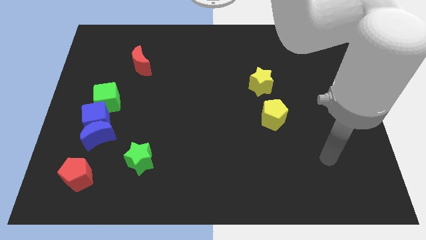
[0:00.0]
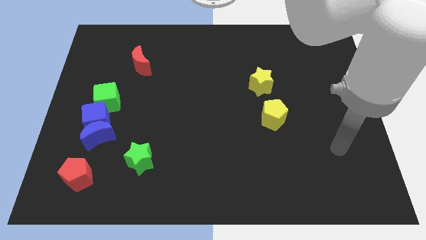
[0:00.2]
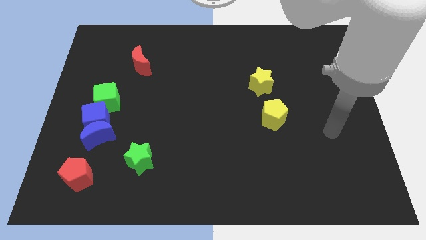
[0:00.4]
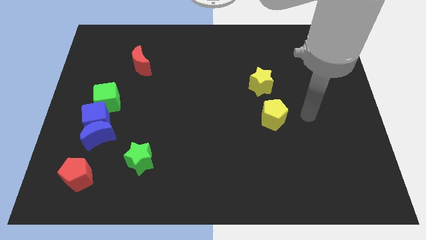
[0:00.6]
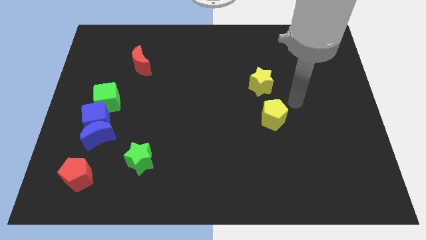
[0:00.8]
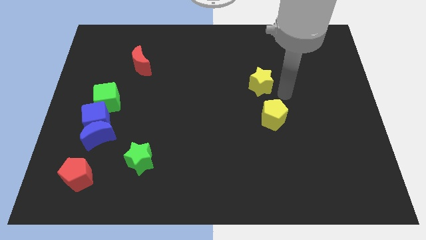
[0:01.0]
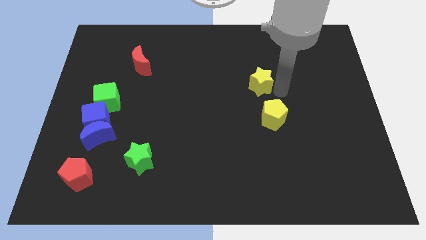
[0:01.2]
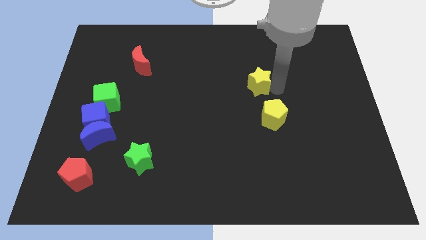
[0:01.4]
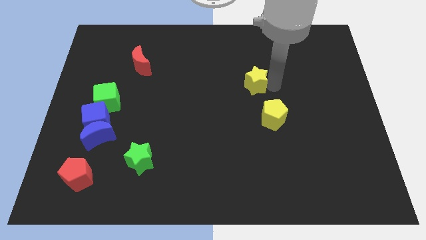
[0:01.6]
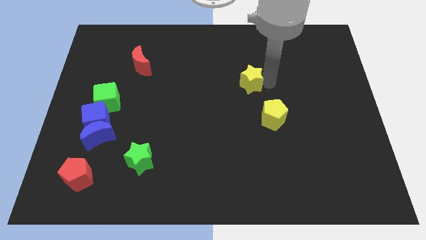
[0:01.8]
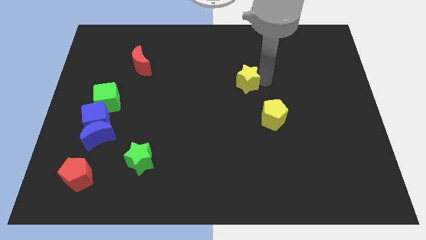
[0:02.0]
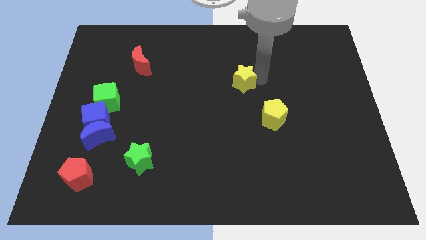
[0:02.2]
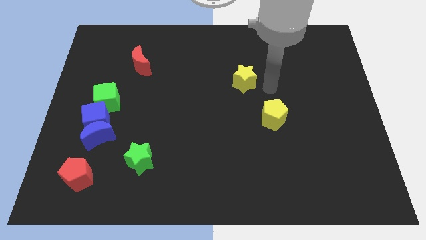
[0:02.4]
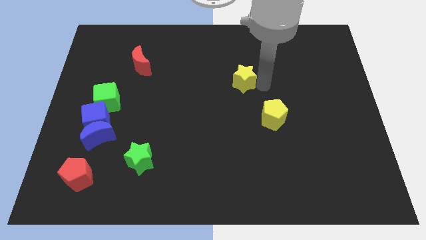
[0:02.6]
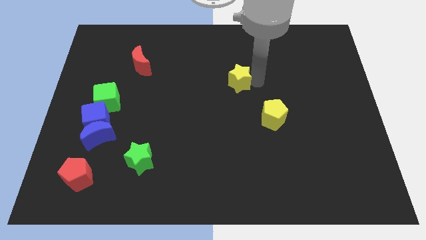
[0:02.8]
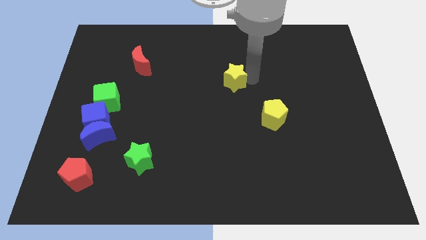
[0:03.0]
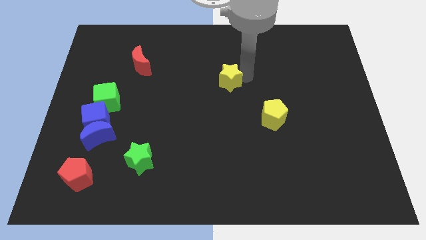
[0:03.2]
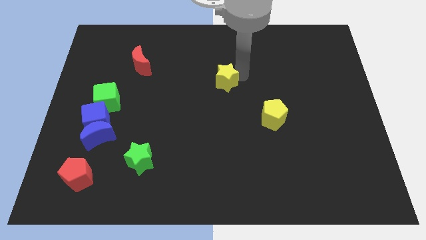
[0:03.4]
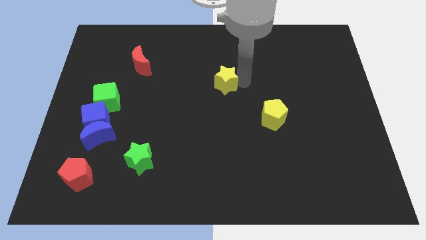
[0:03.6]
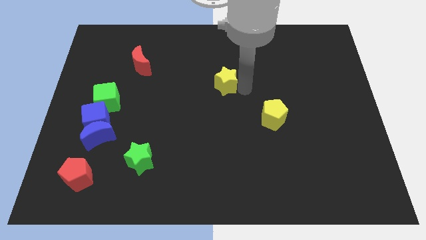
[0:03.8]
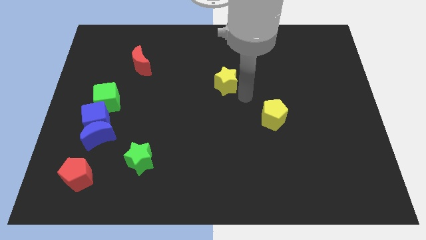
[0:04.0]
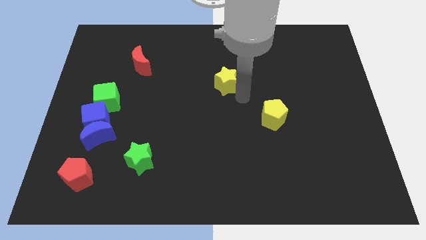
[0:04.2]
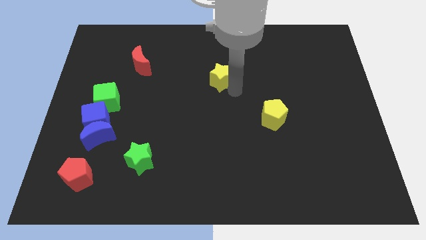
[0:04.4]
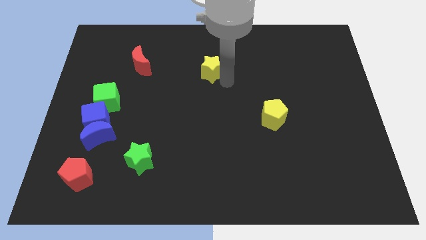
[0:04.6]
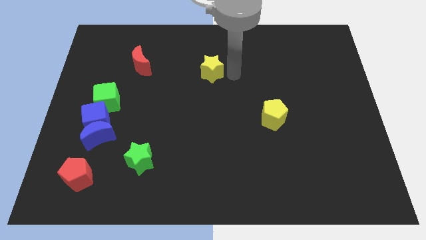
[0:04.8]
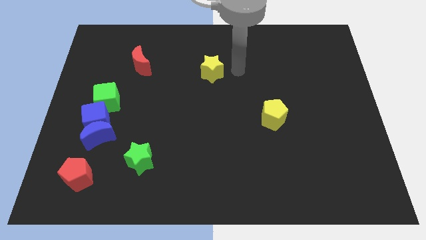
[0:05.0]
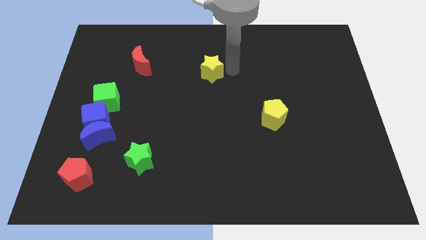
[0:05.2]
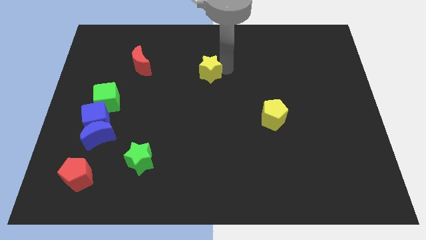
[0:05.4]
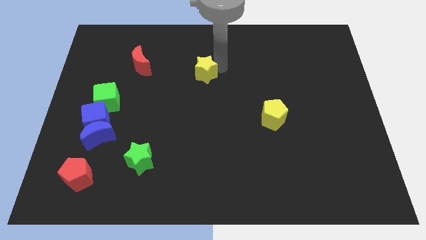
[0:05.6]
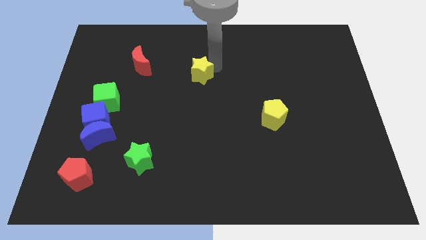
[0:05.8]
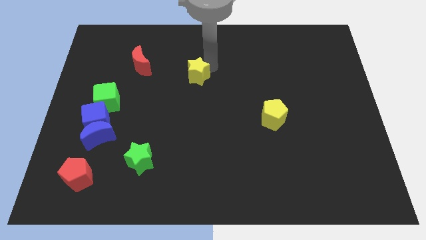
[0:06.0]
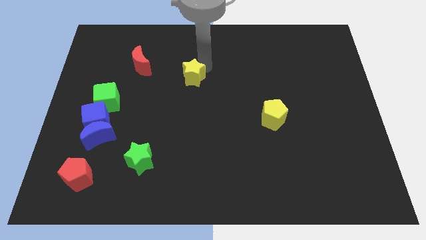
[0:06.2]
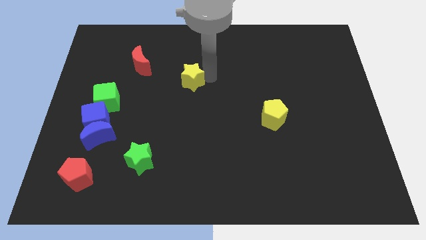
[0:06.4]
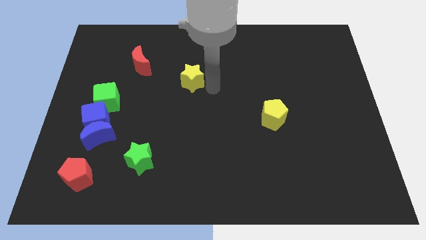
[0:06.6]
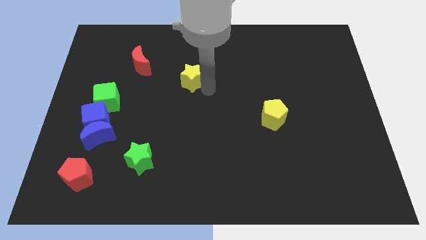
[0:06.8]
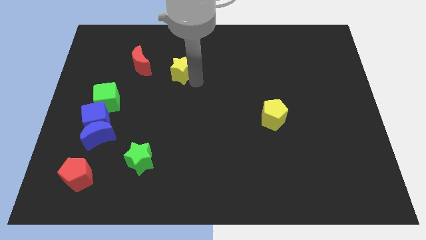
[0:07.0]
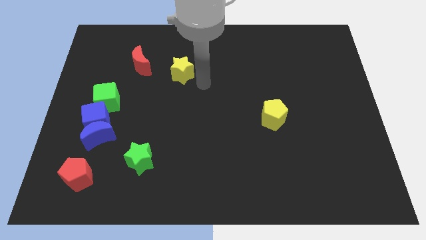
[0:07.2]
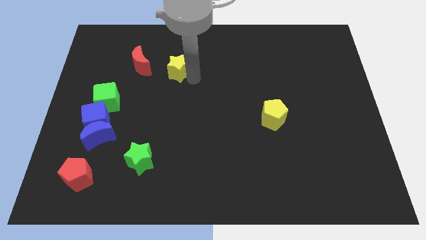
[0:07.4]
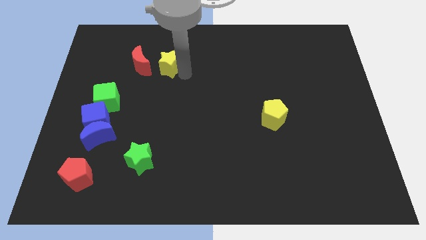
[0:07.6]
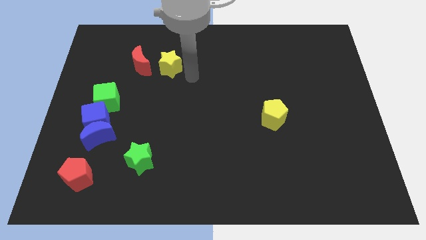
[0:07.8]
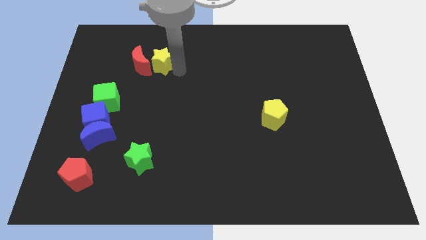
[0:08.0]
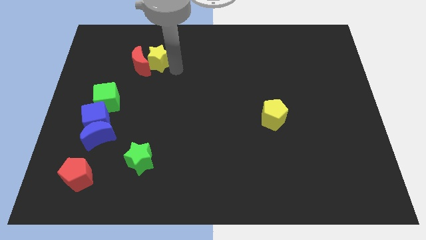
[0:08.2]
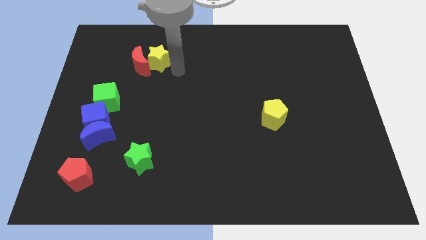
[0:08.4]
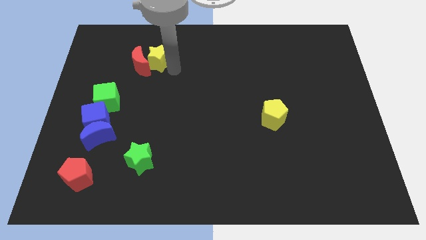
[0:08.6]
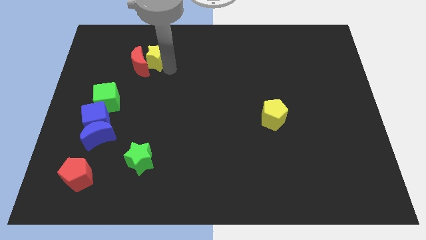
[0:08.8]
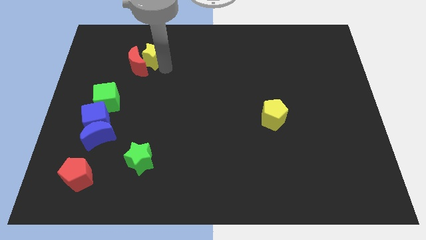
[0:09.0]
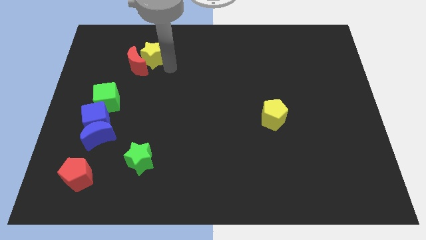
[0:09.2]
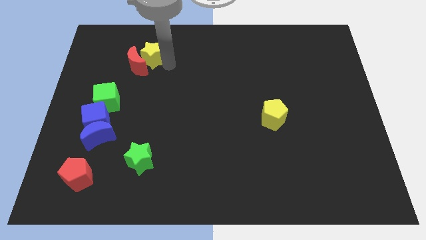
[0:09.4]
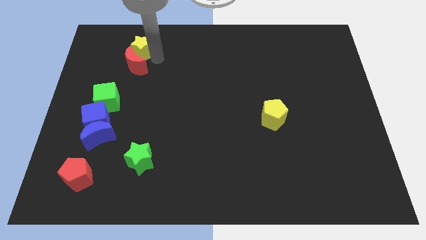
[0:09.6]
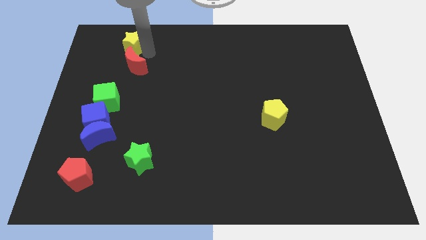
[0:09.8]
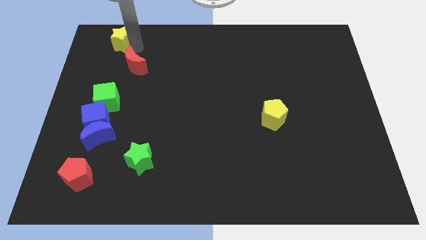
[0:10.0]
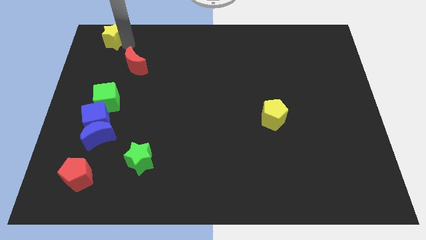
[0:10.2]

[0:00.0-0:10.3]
push the yellow star to the top left of the board

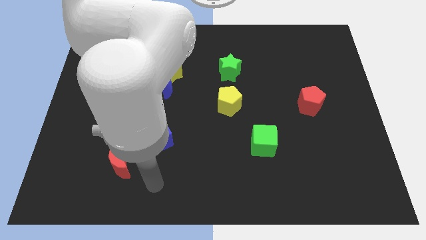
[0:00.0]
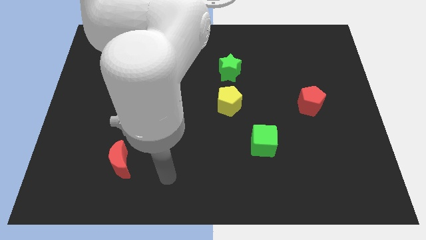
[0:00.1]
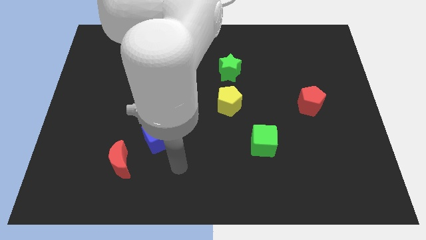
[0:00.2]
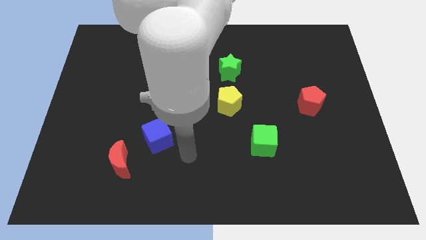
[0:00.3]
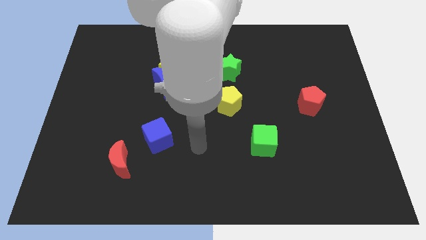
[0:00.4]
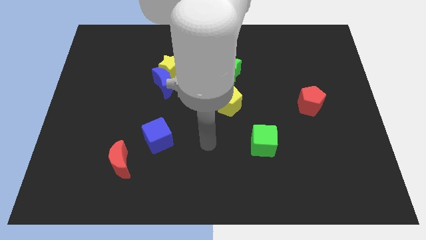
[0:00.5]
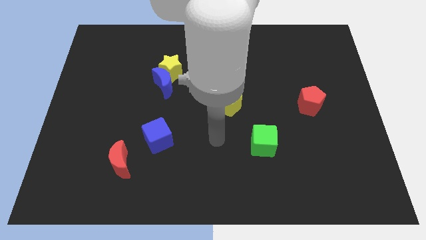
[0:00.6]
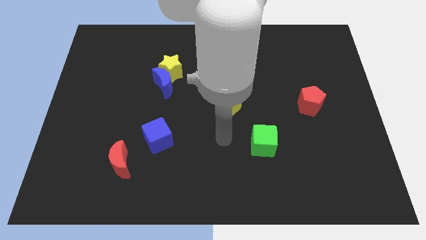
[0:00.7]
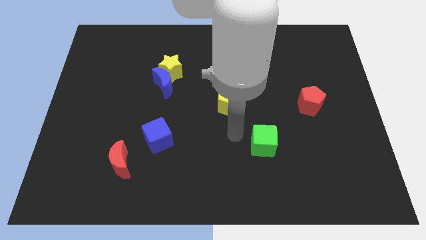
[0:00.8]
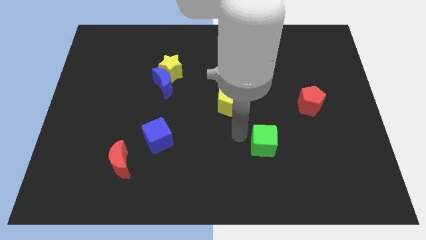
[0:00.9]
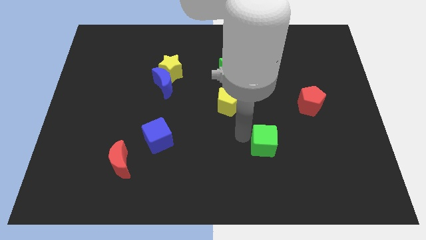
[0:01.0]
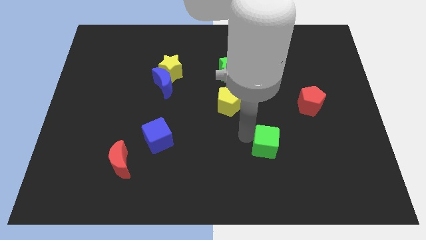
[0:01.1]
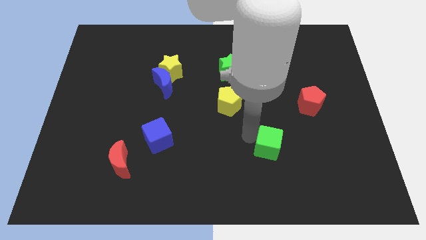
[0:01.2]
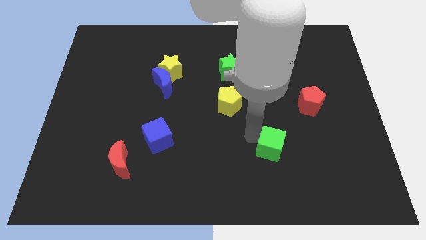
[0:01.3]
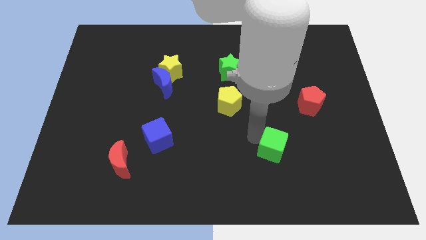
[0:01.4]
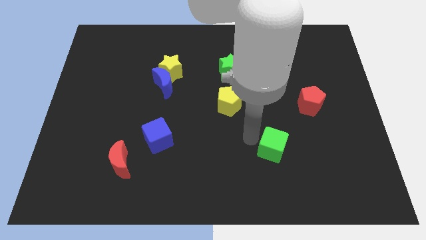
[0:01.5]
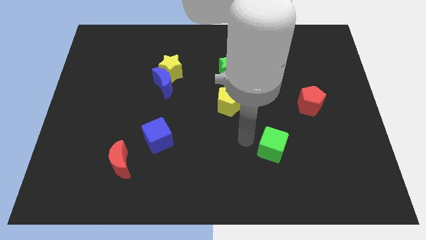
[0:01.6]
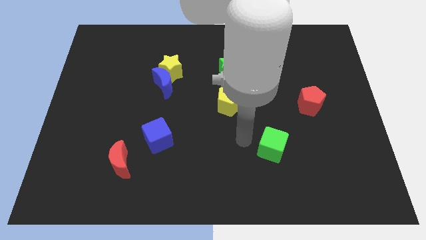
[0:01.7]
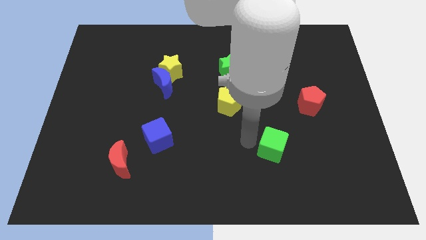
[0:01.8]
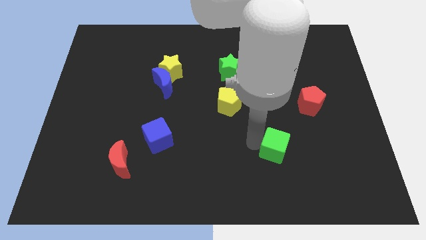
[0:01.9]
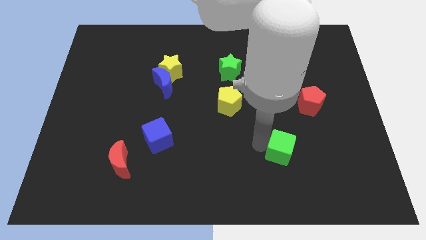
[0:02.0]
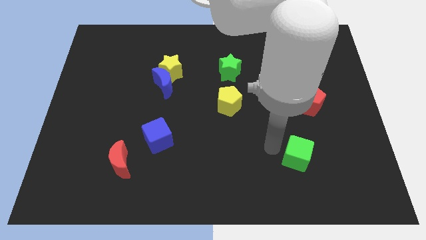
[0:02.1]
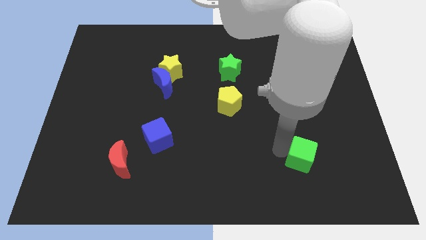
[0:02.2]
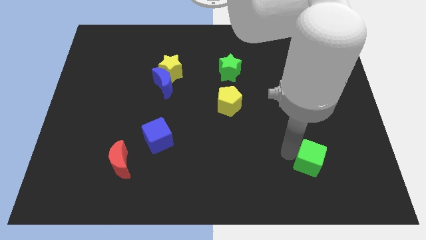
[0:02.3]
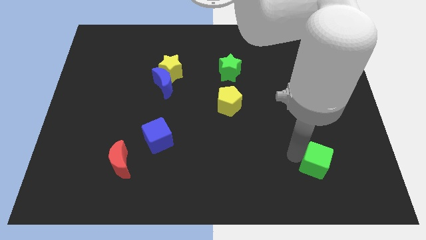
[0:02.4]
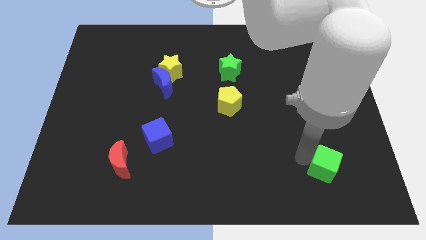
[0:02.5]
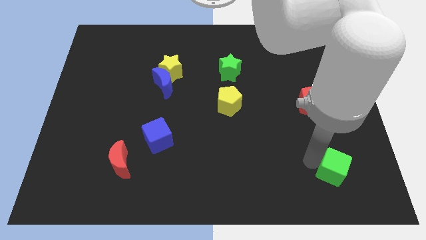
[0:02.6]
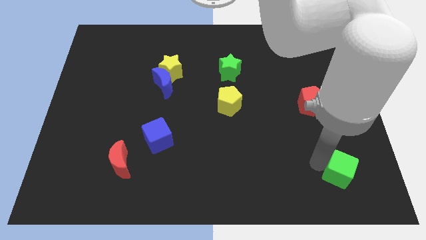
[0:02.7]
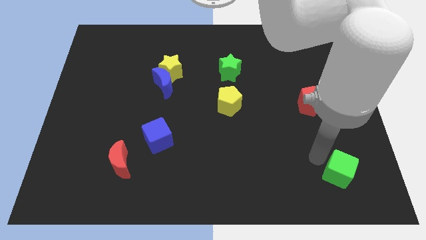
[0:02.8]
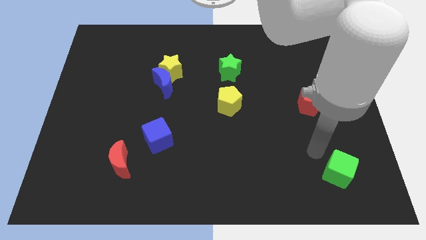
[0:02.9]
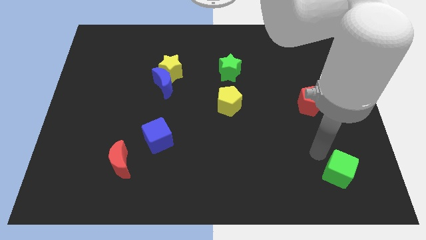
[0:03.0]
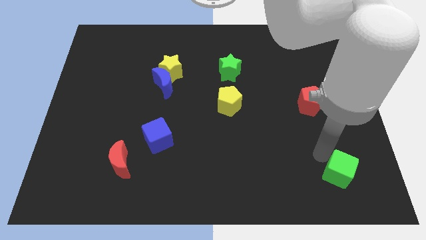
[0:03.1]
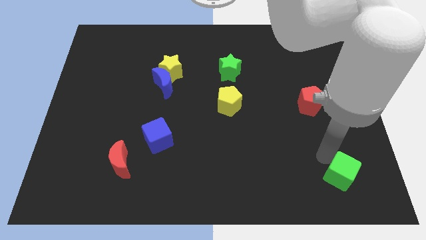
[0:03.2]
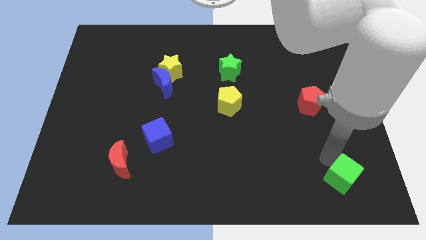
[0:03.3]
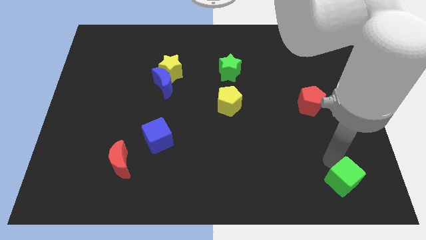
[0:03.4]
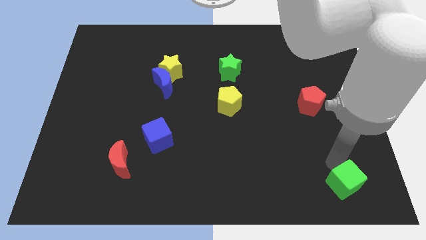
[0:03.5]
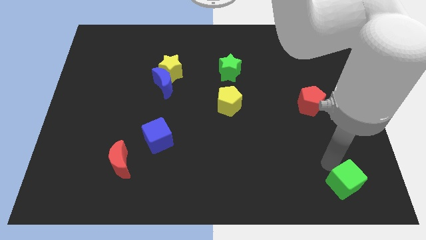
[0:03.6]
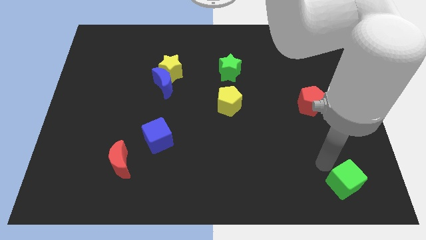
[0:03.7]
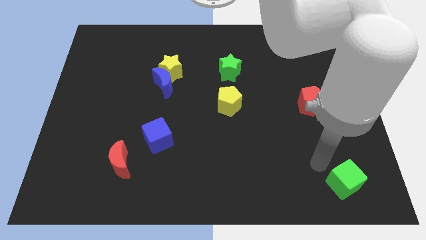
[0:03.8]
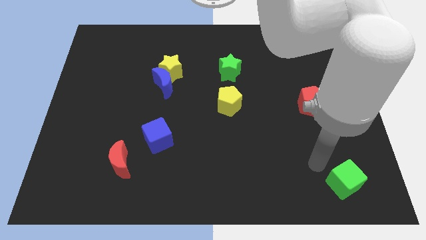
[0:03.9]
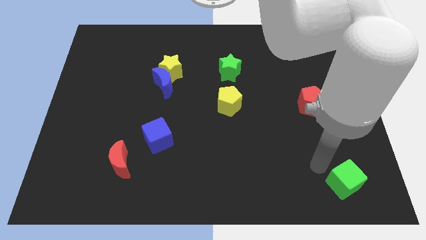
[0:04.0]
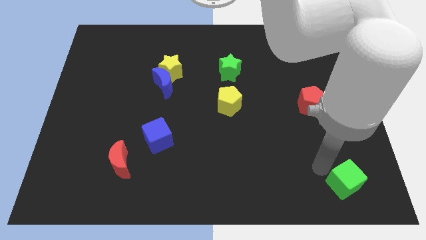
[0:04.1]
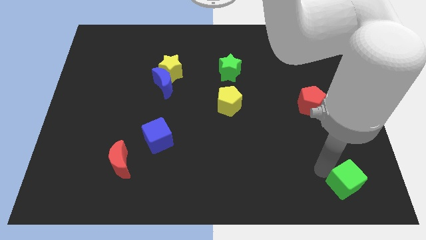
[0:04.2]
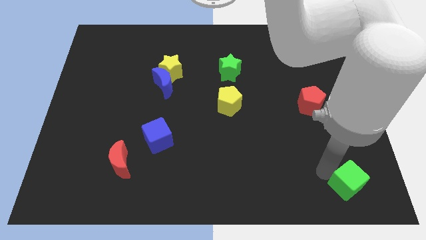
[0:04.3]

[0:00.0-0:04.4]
slide the green cube to the bottom right
